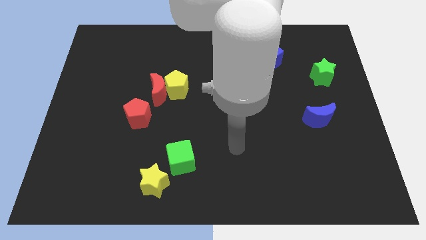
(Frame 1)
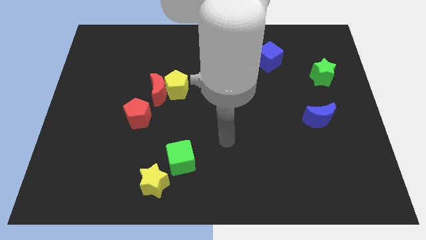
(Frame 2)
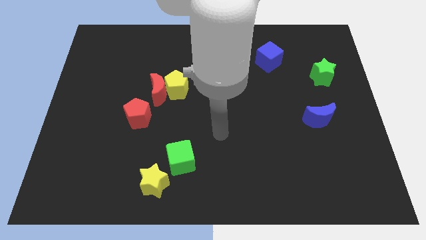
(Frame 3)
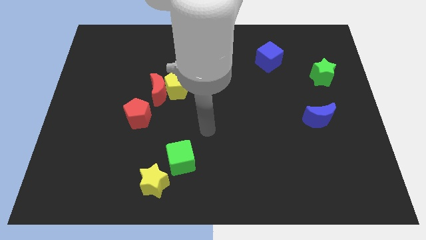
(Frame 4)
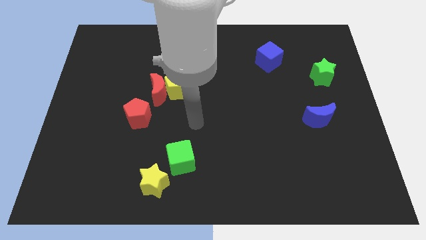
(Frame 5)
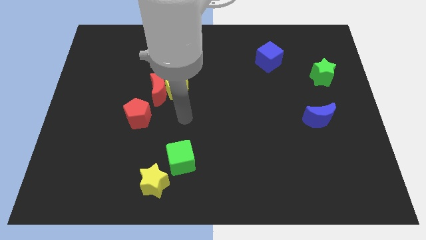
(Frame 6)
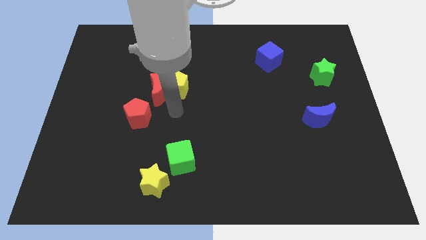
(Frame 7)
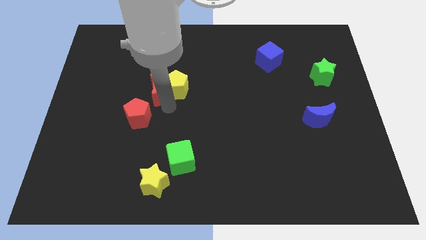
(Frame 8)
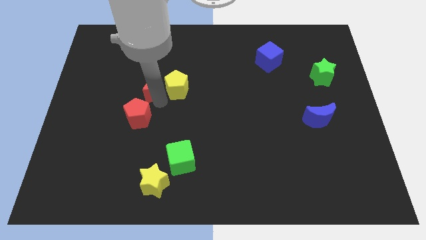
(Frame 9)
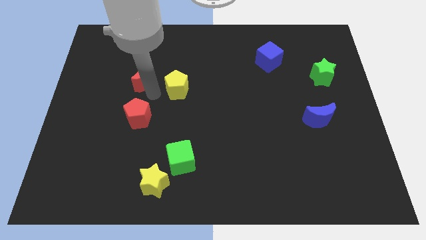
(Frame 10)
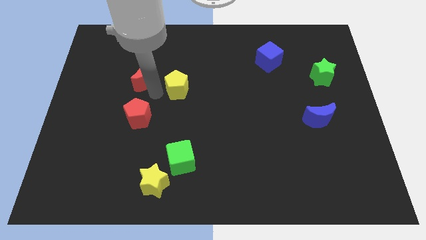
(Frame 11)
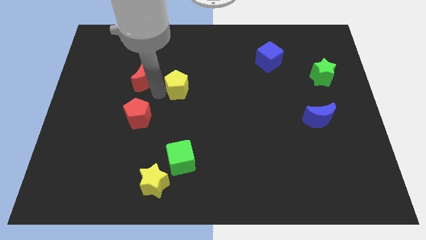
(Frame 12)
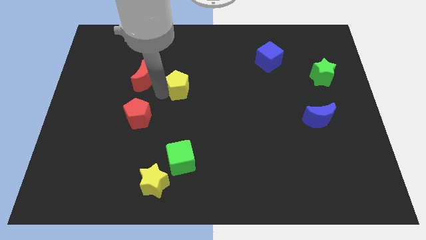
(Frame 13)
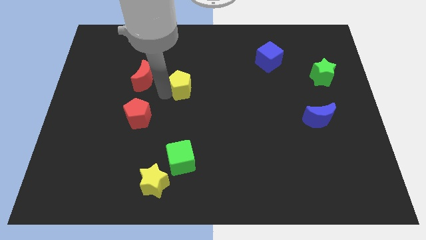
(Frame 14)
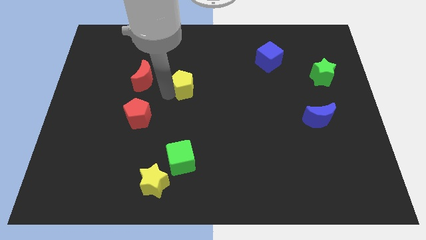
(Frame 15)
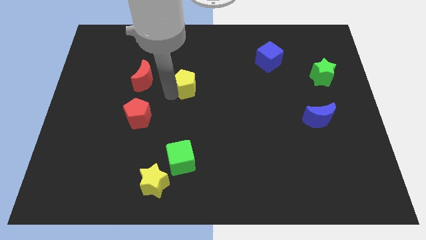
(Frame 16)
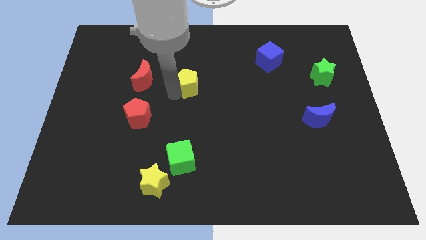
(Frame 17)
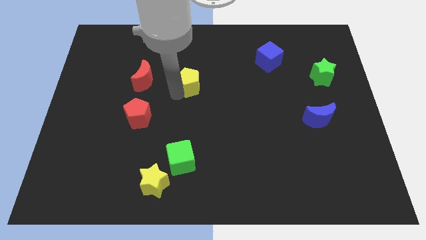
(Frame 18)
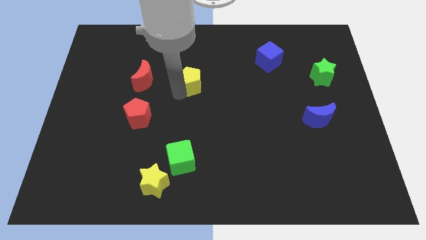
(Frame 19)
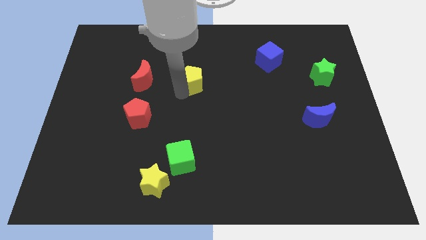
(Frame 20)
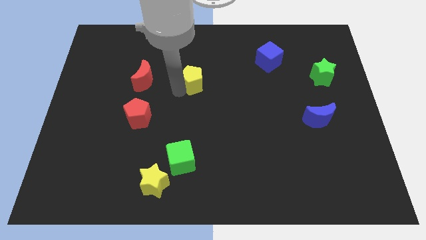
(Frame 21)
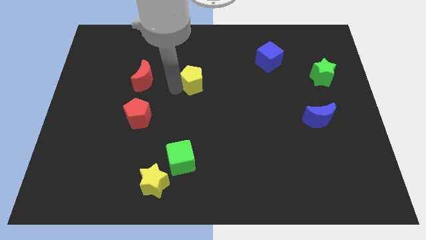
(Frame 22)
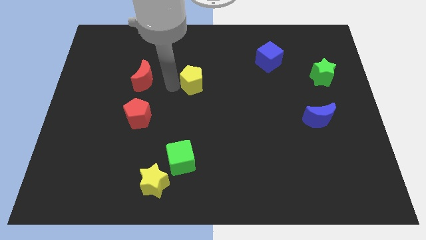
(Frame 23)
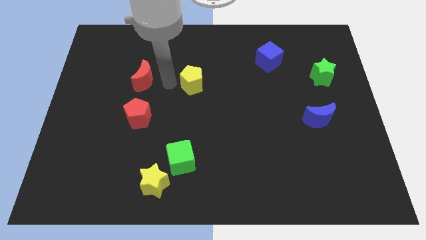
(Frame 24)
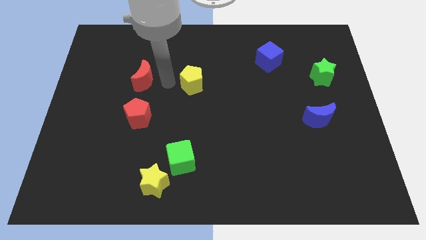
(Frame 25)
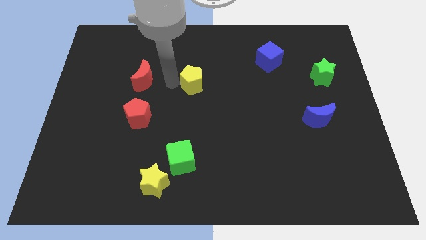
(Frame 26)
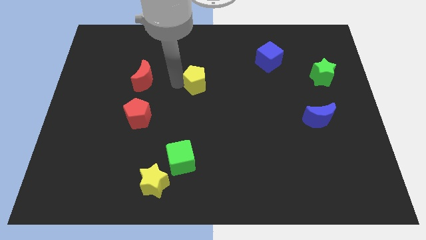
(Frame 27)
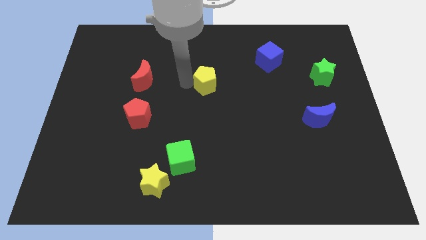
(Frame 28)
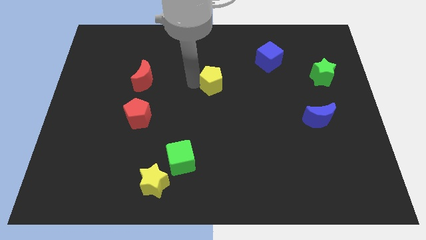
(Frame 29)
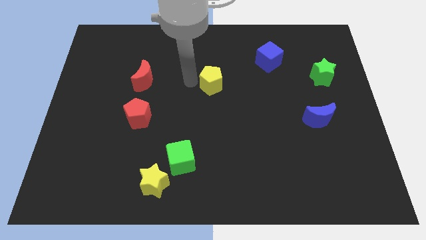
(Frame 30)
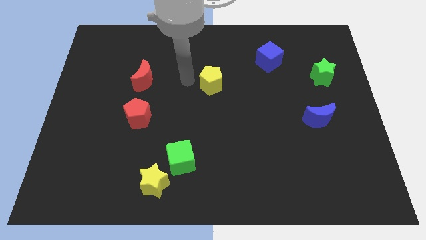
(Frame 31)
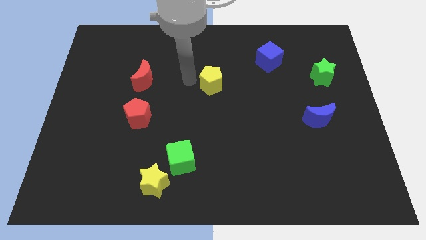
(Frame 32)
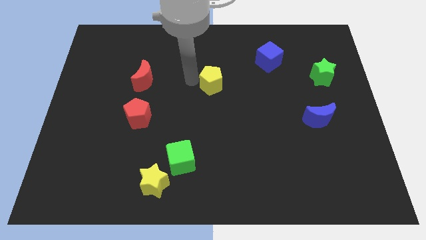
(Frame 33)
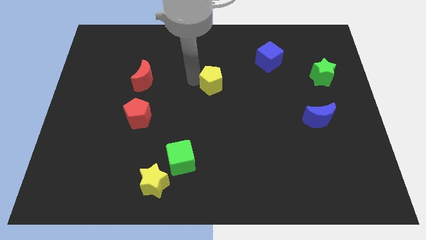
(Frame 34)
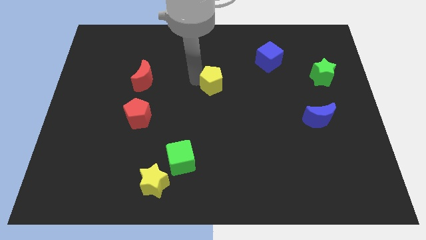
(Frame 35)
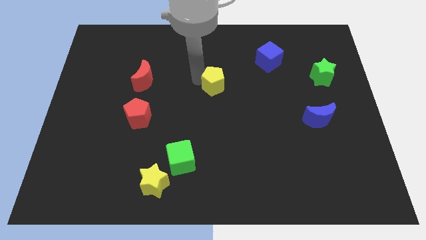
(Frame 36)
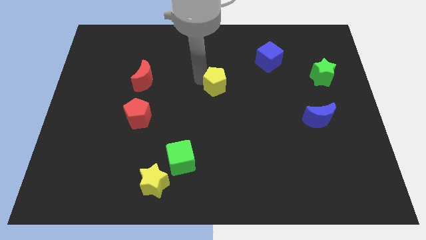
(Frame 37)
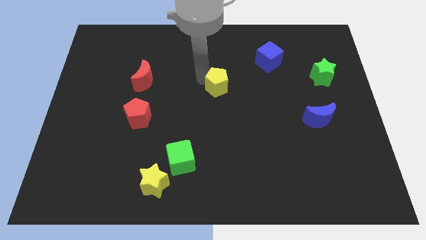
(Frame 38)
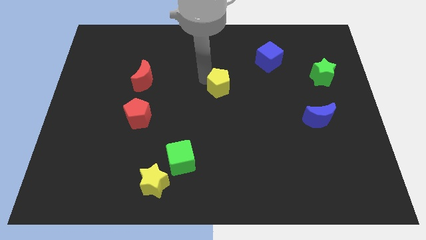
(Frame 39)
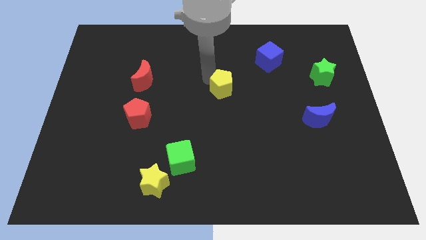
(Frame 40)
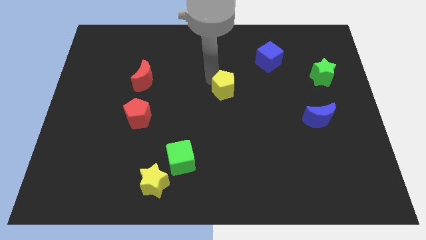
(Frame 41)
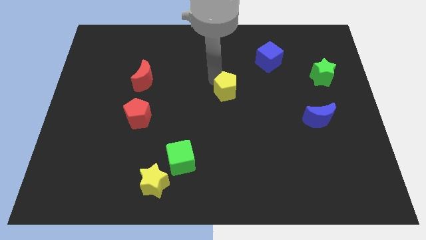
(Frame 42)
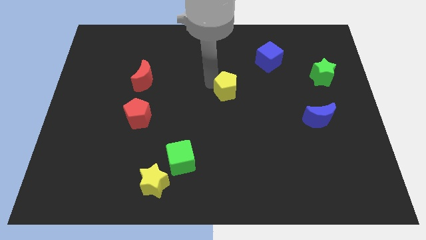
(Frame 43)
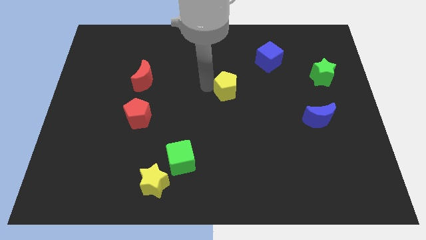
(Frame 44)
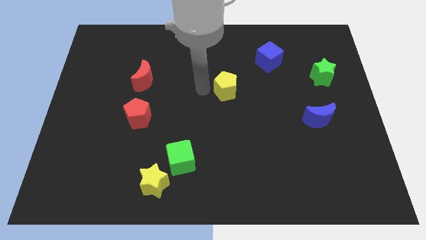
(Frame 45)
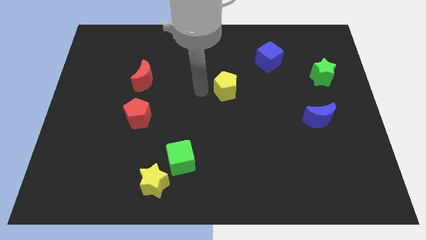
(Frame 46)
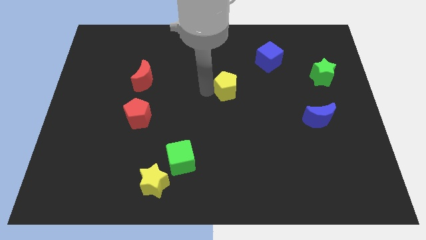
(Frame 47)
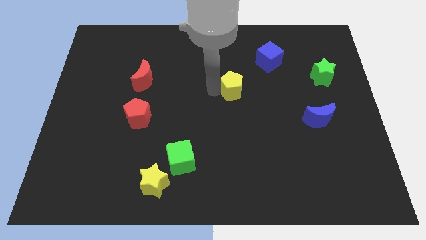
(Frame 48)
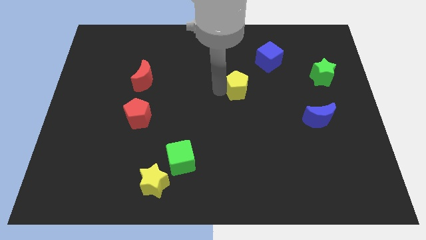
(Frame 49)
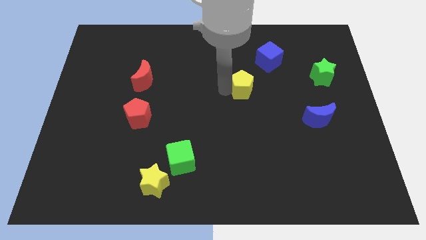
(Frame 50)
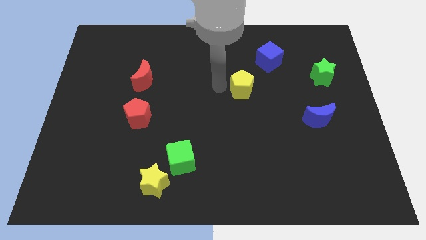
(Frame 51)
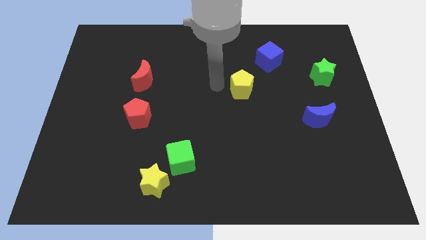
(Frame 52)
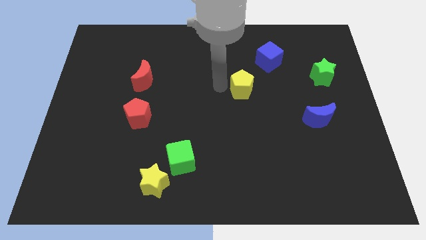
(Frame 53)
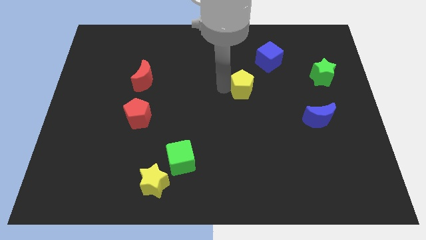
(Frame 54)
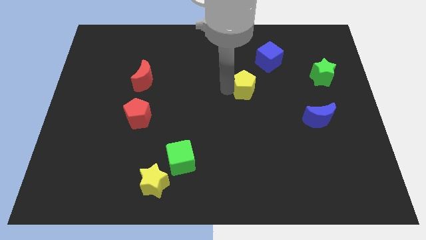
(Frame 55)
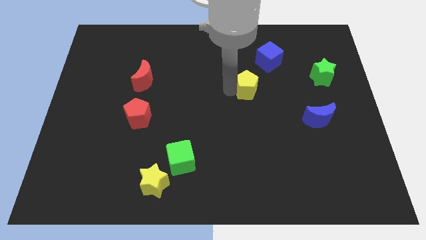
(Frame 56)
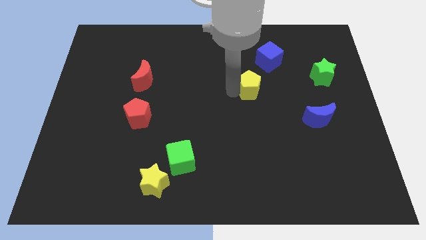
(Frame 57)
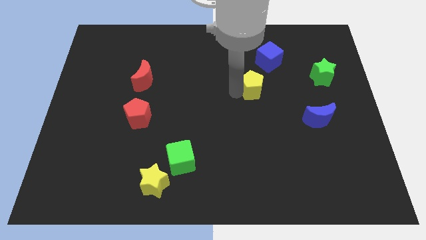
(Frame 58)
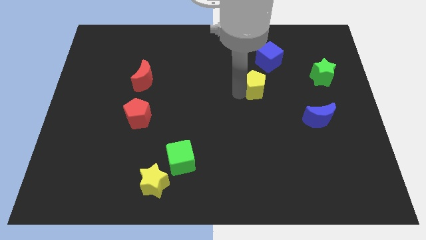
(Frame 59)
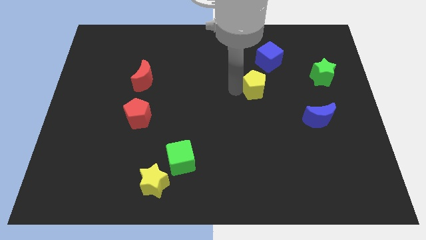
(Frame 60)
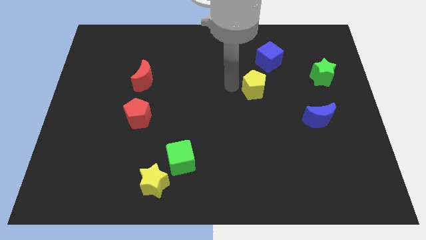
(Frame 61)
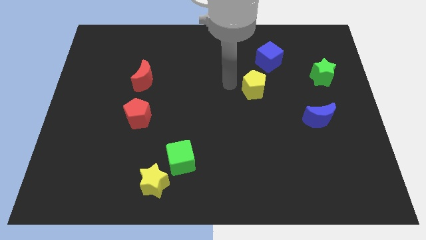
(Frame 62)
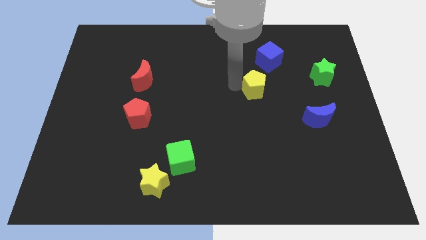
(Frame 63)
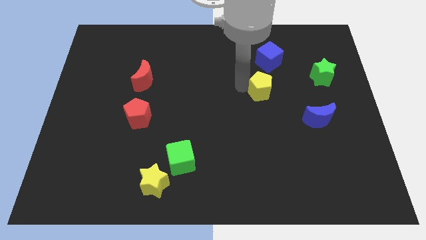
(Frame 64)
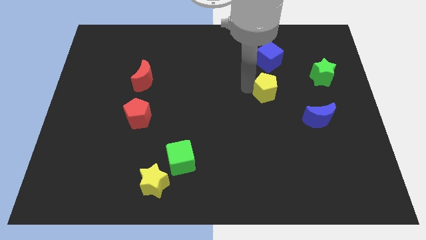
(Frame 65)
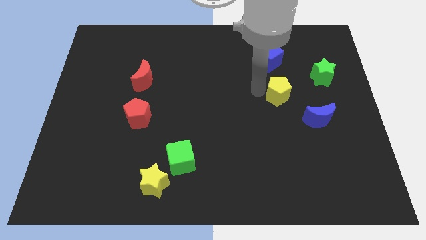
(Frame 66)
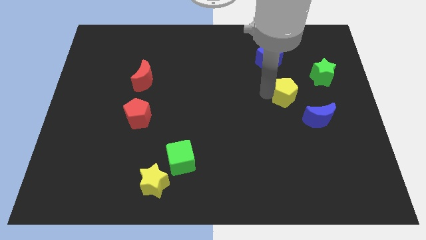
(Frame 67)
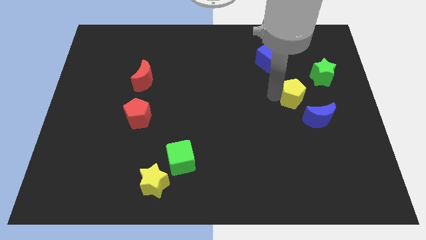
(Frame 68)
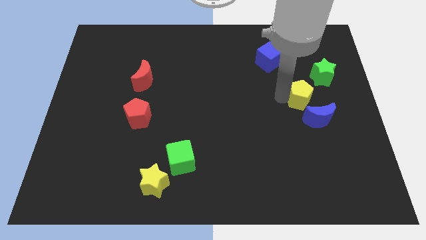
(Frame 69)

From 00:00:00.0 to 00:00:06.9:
push the yellow pentagon to the top side of the blue moon
